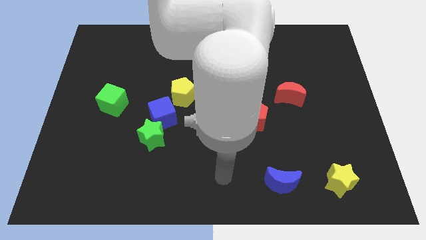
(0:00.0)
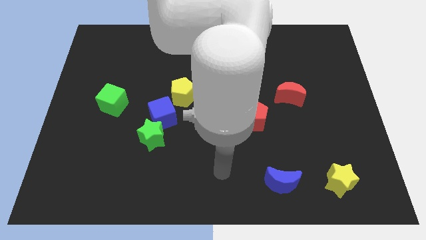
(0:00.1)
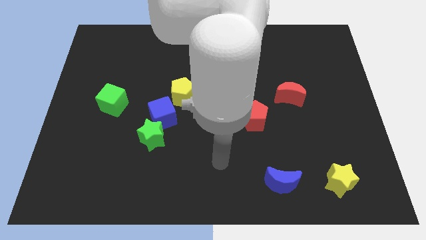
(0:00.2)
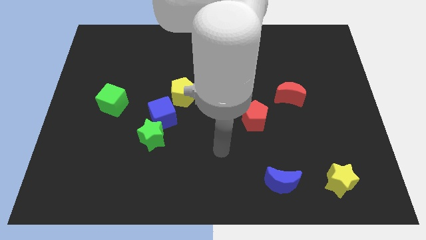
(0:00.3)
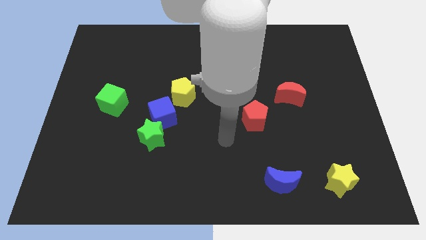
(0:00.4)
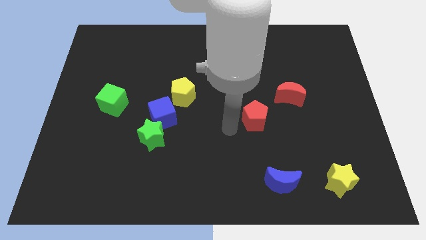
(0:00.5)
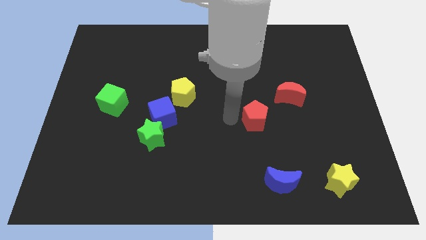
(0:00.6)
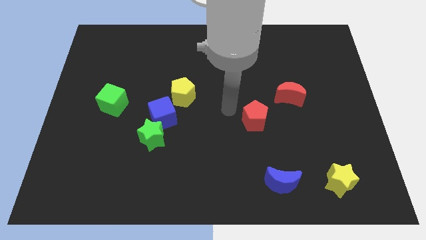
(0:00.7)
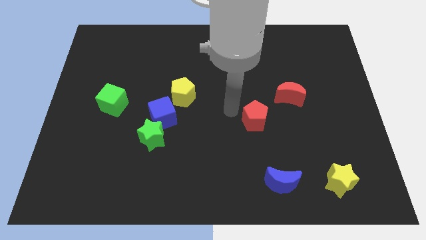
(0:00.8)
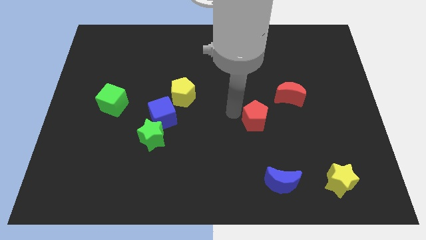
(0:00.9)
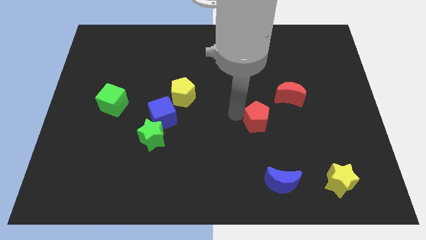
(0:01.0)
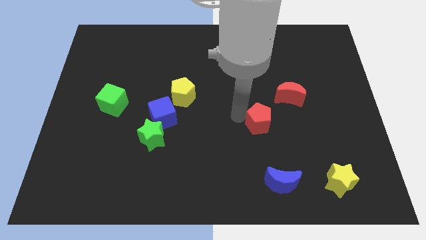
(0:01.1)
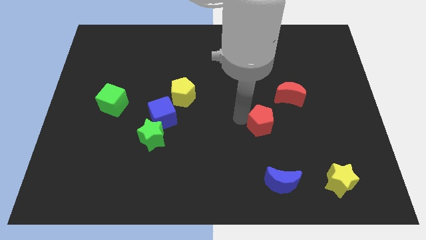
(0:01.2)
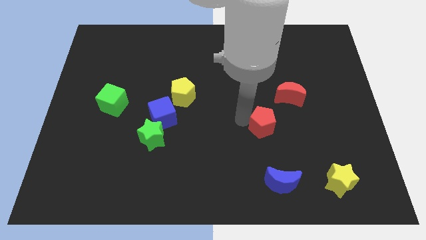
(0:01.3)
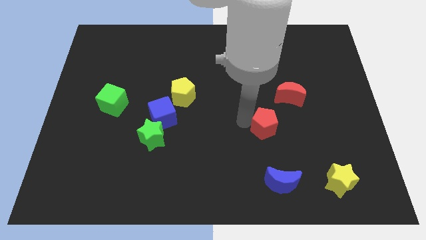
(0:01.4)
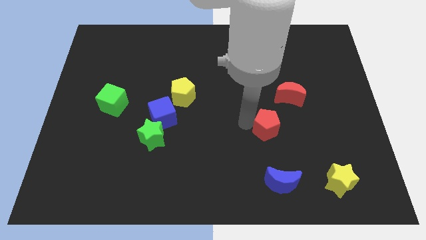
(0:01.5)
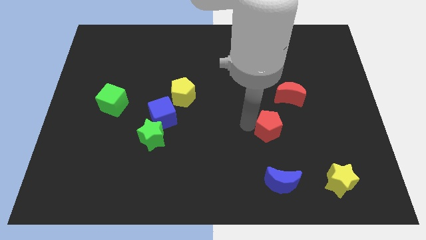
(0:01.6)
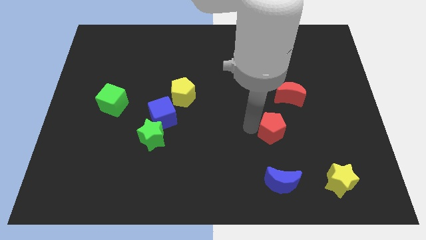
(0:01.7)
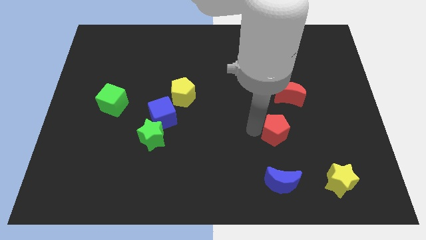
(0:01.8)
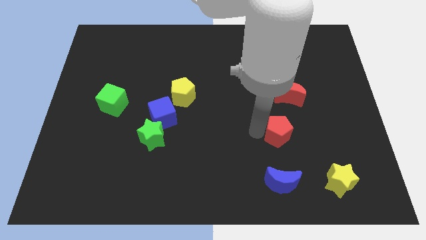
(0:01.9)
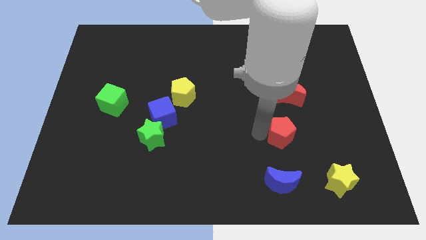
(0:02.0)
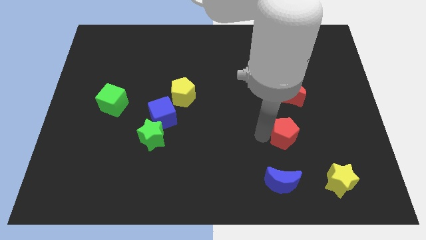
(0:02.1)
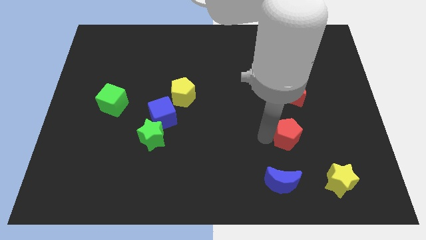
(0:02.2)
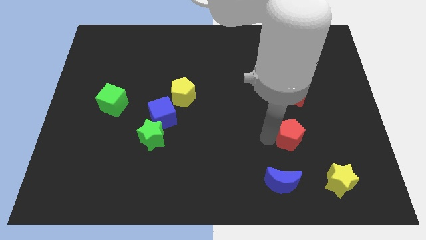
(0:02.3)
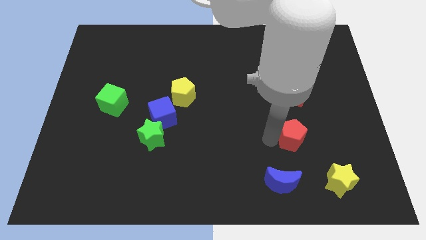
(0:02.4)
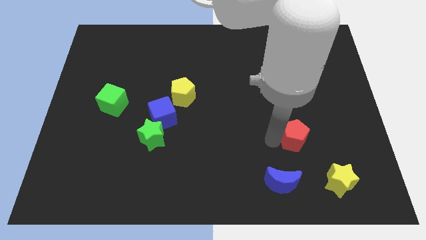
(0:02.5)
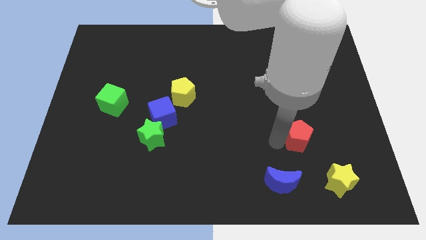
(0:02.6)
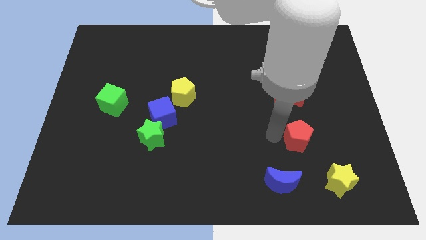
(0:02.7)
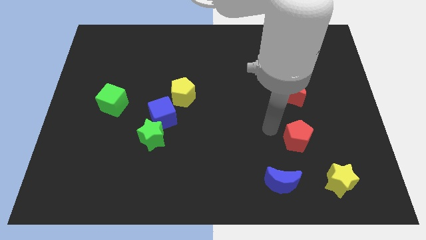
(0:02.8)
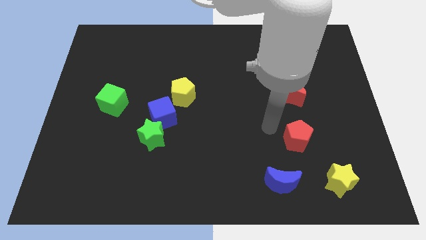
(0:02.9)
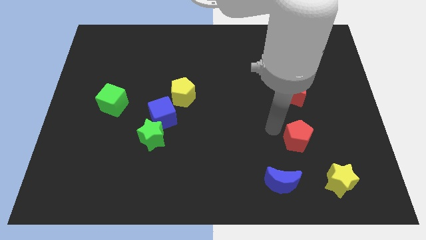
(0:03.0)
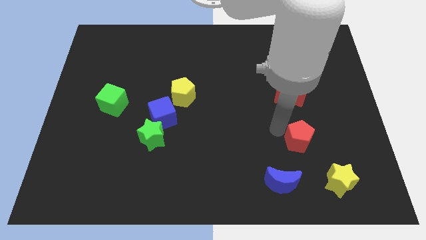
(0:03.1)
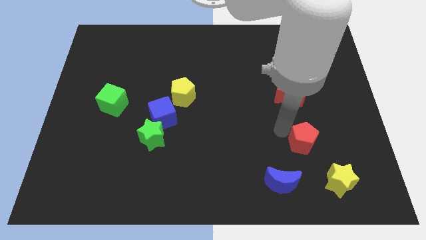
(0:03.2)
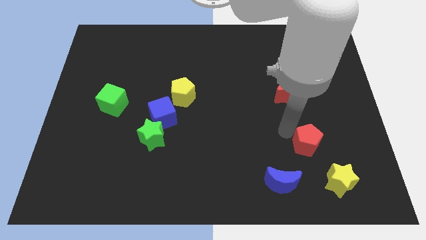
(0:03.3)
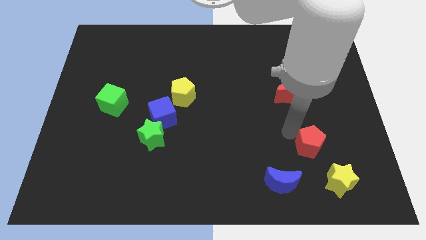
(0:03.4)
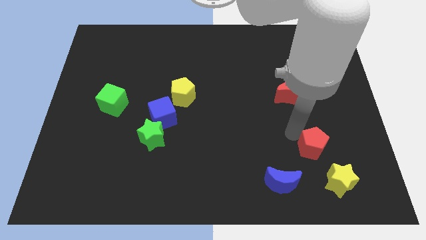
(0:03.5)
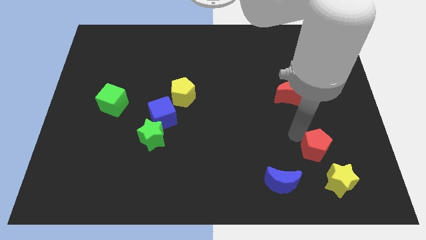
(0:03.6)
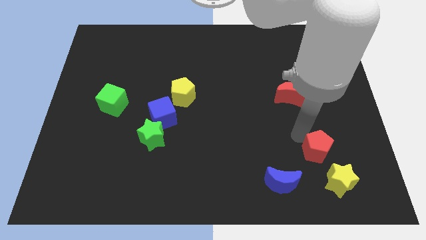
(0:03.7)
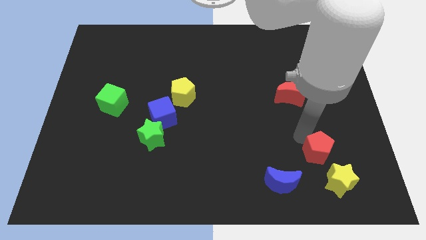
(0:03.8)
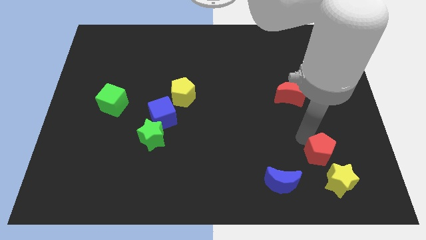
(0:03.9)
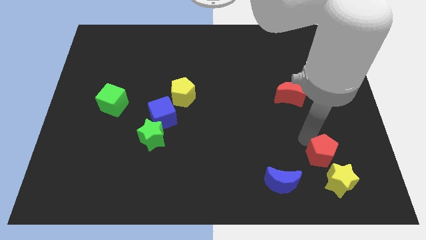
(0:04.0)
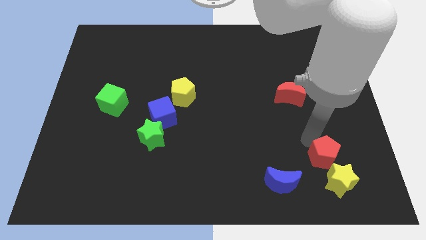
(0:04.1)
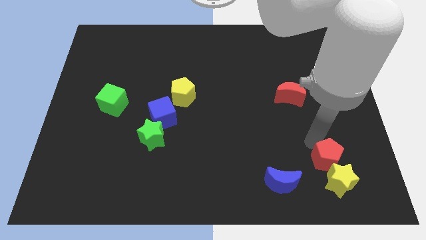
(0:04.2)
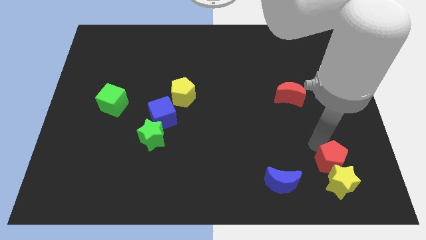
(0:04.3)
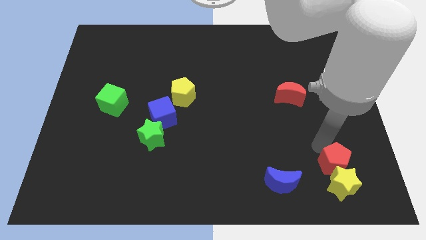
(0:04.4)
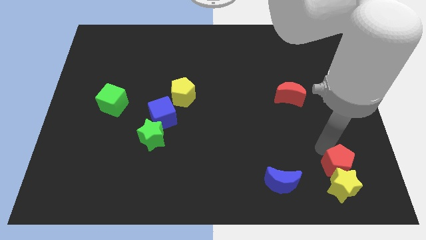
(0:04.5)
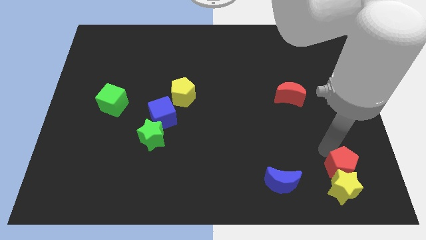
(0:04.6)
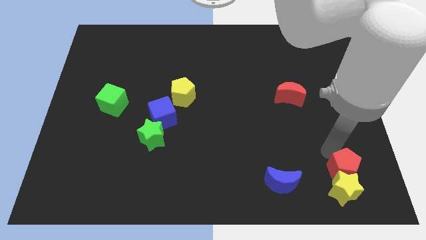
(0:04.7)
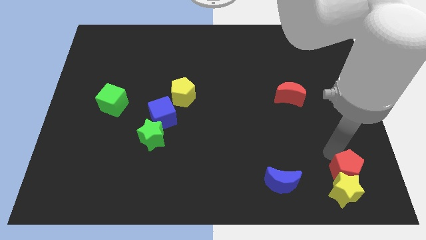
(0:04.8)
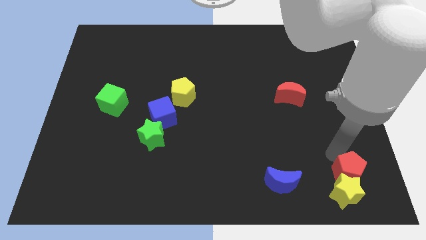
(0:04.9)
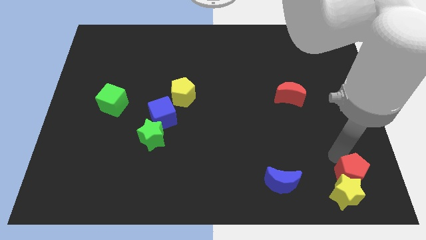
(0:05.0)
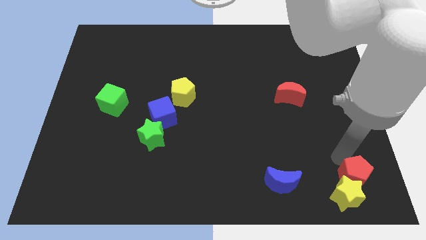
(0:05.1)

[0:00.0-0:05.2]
push the red pentagon to the lower right corner

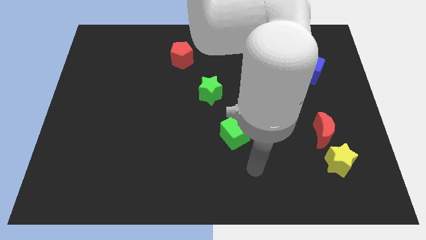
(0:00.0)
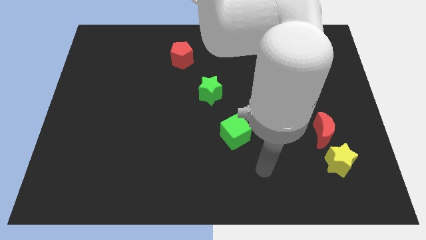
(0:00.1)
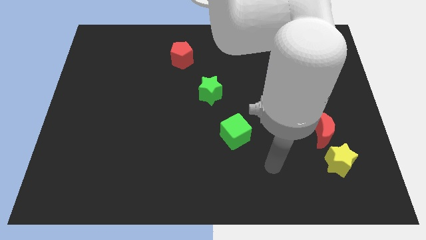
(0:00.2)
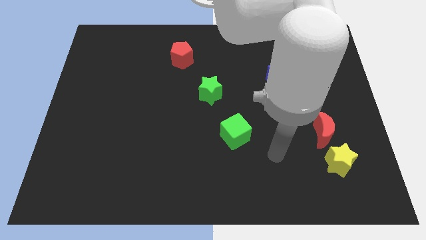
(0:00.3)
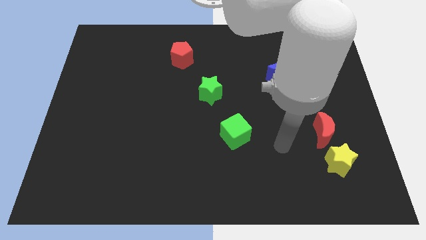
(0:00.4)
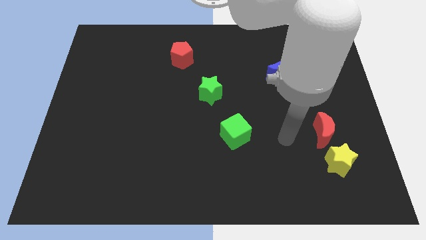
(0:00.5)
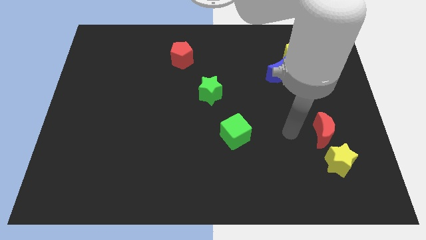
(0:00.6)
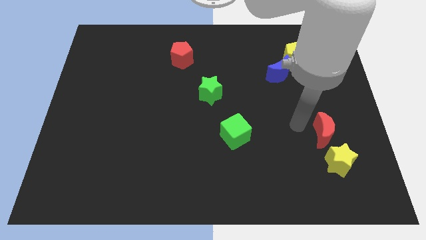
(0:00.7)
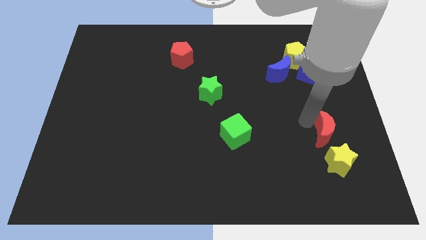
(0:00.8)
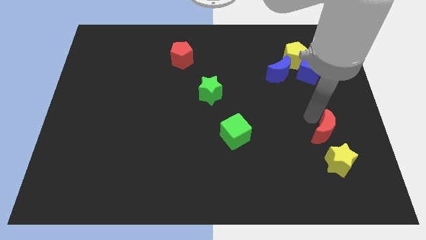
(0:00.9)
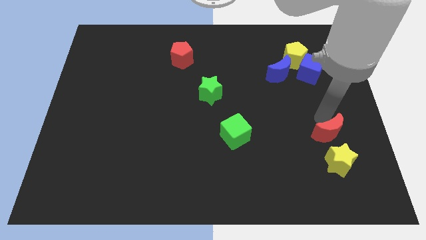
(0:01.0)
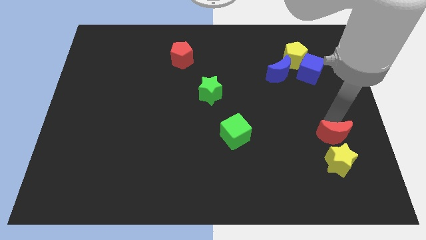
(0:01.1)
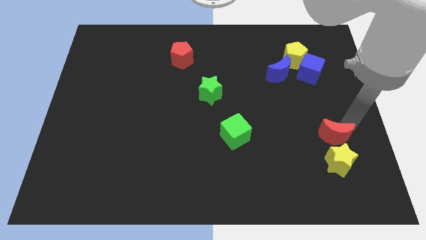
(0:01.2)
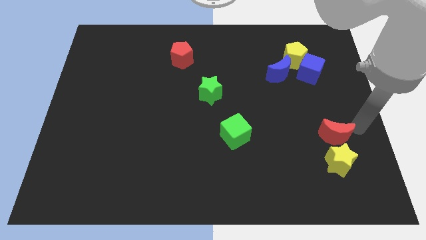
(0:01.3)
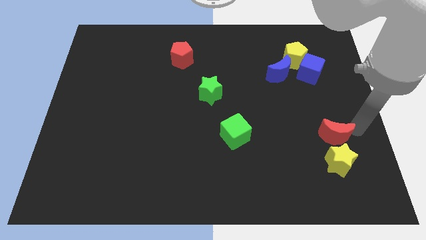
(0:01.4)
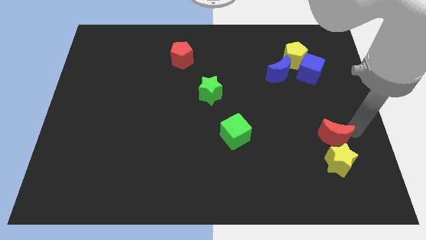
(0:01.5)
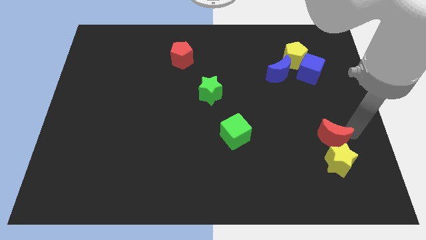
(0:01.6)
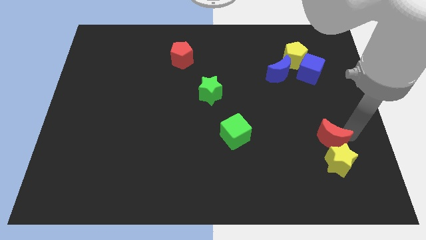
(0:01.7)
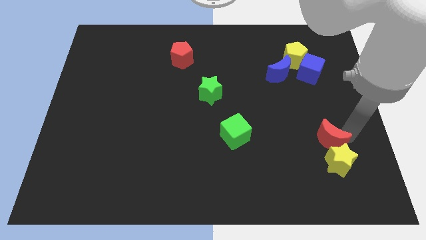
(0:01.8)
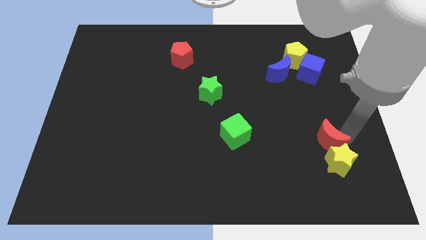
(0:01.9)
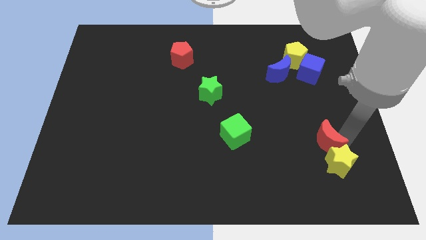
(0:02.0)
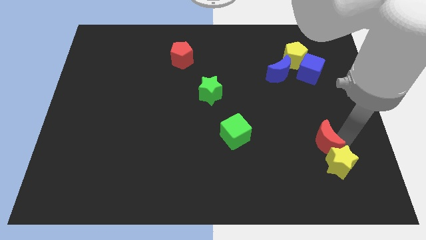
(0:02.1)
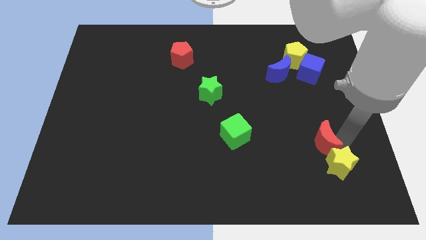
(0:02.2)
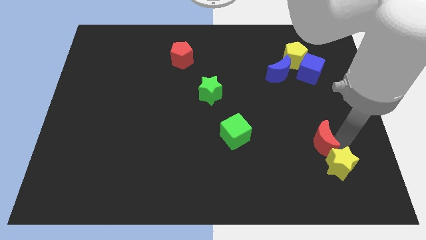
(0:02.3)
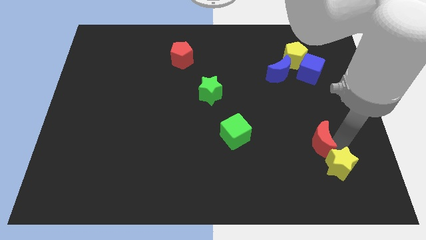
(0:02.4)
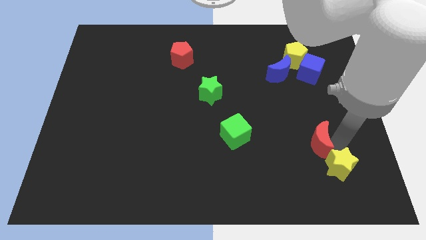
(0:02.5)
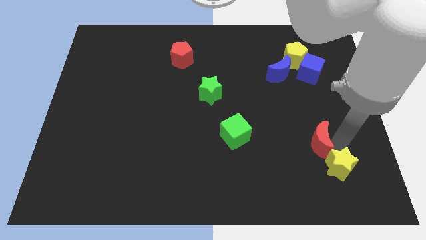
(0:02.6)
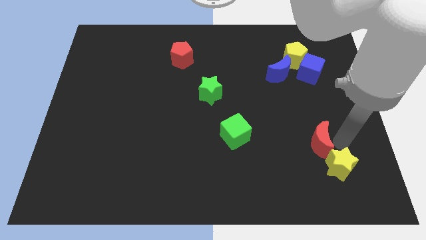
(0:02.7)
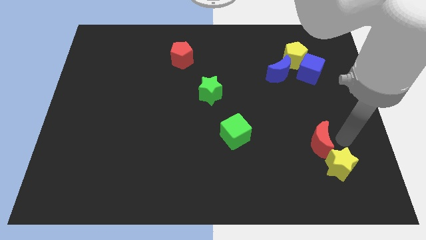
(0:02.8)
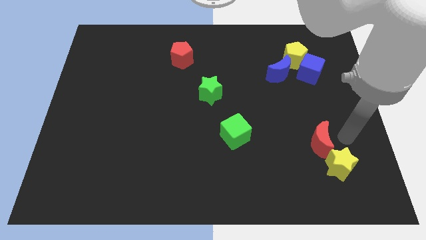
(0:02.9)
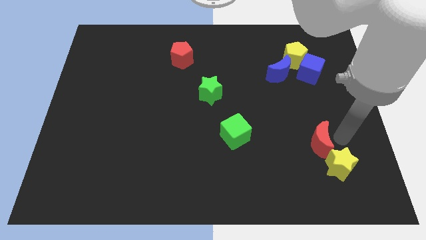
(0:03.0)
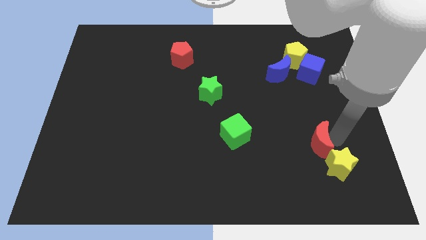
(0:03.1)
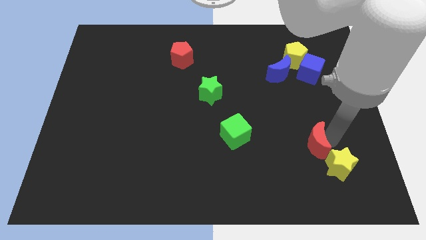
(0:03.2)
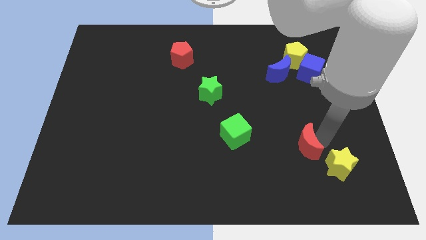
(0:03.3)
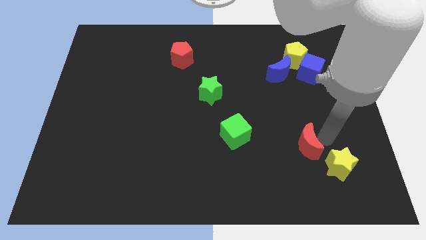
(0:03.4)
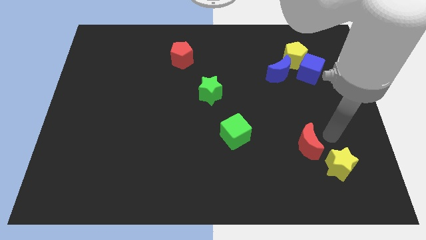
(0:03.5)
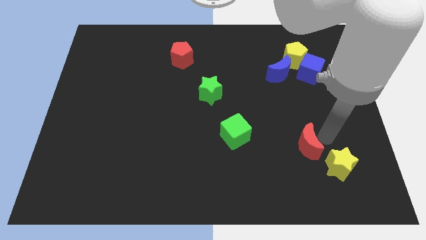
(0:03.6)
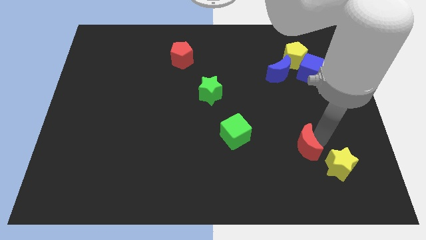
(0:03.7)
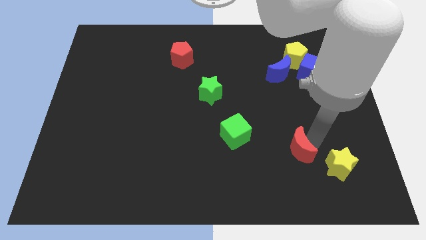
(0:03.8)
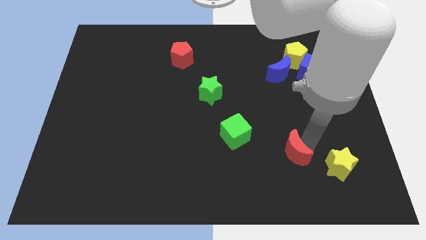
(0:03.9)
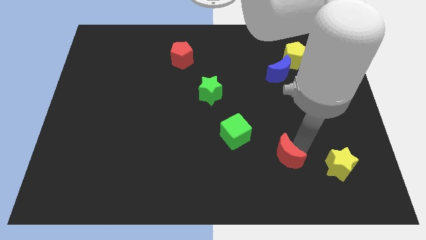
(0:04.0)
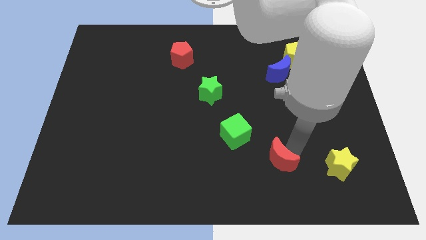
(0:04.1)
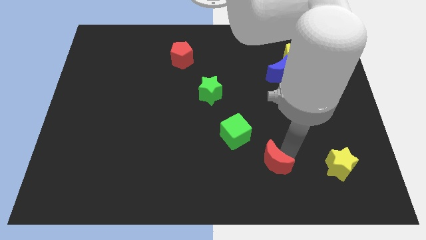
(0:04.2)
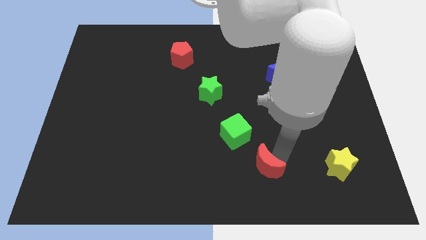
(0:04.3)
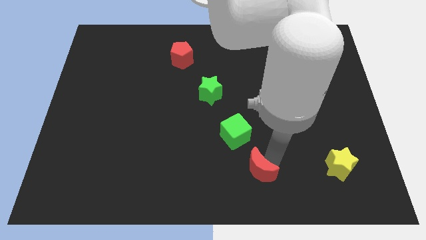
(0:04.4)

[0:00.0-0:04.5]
slide the red moon to the bottom side
